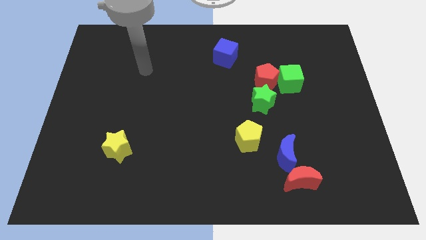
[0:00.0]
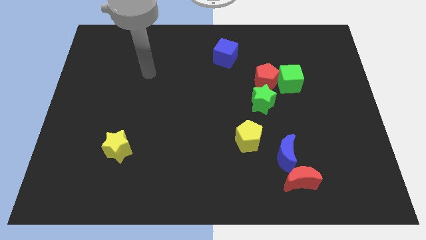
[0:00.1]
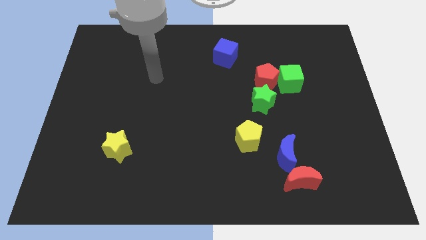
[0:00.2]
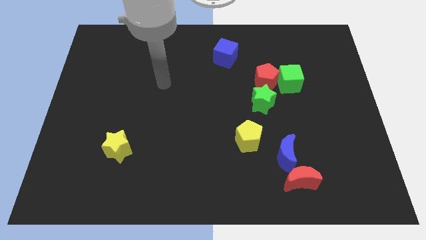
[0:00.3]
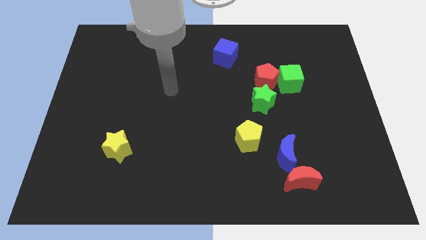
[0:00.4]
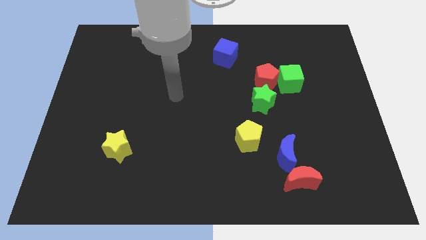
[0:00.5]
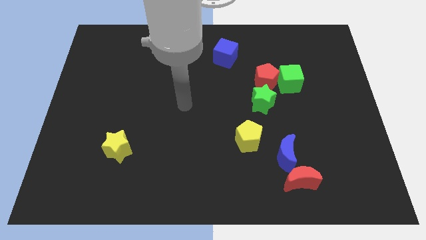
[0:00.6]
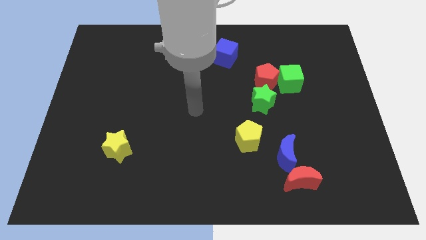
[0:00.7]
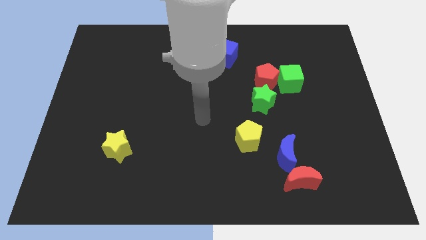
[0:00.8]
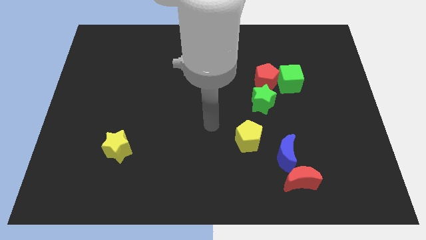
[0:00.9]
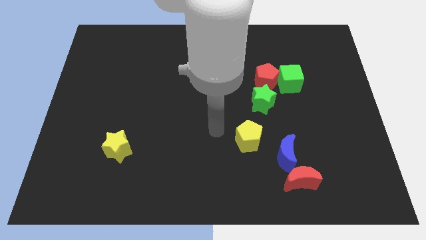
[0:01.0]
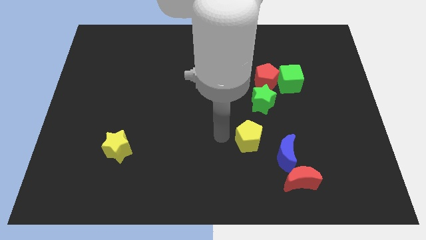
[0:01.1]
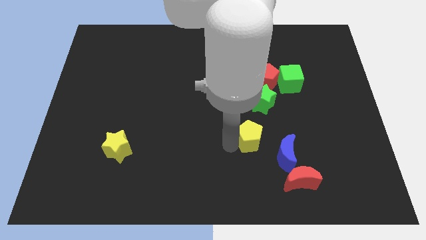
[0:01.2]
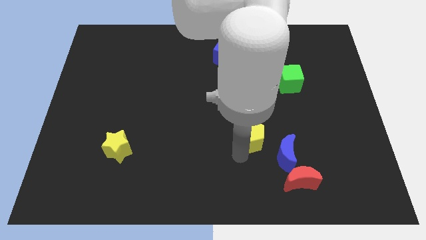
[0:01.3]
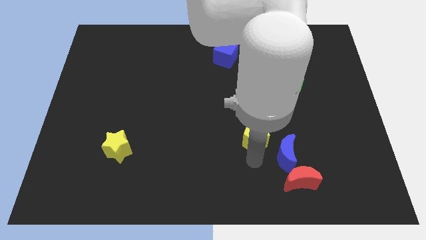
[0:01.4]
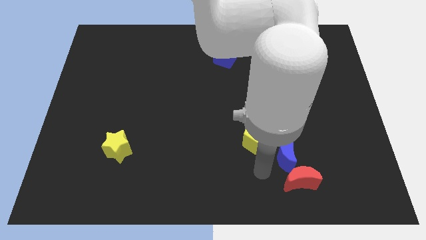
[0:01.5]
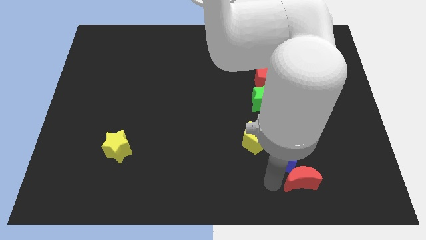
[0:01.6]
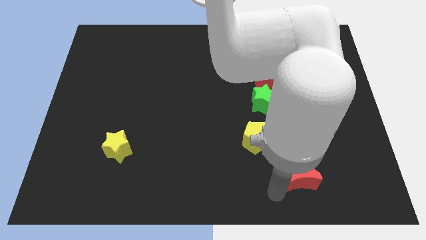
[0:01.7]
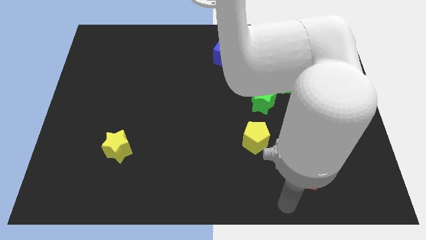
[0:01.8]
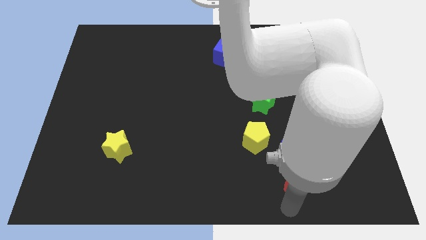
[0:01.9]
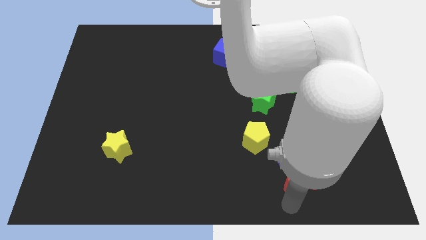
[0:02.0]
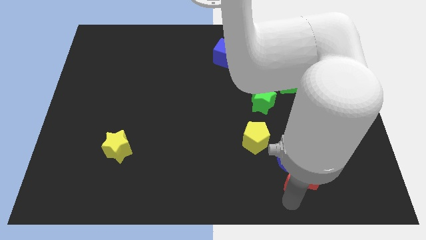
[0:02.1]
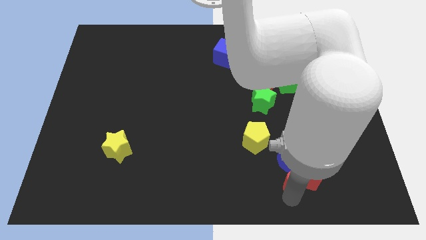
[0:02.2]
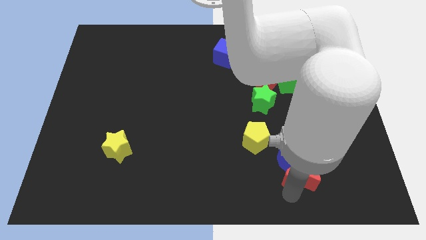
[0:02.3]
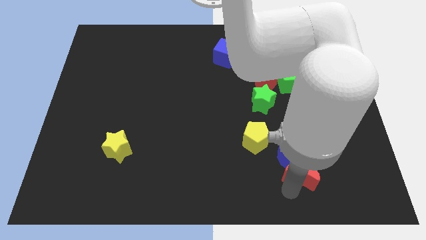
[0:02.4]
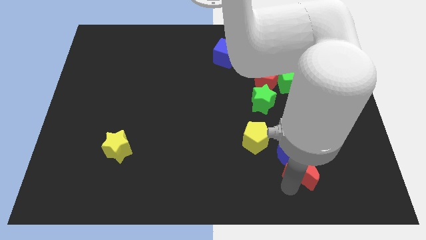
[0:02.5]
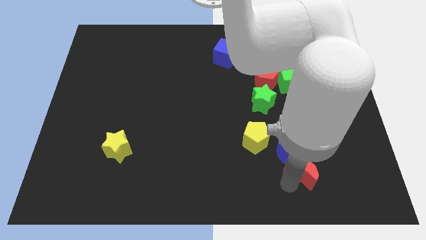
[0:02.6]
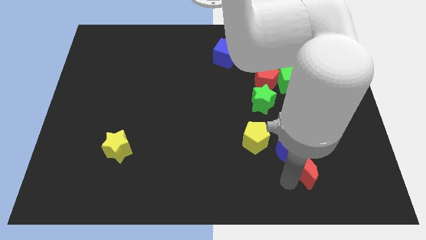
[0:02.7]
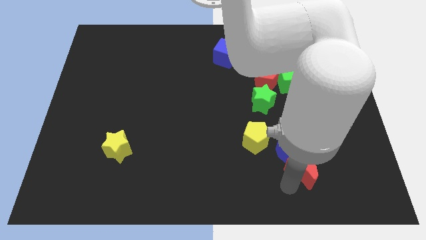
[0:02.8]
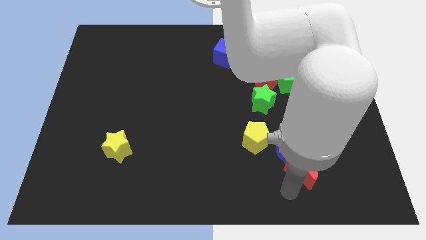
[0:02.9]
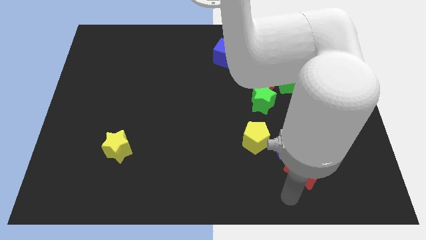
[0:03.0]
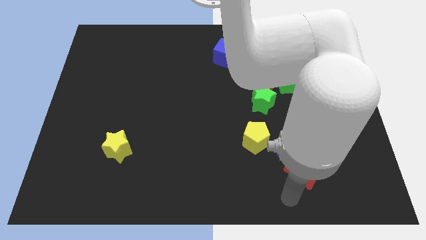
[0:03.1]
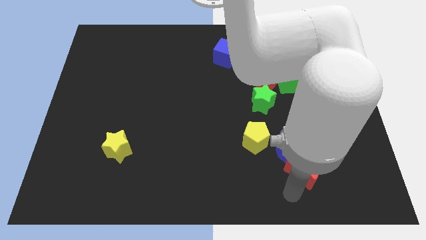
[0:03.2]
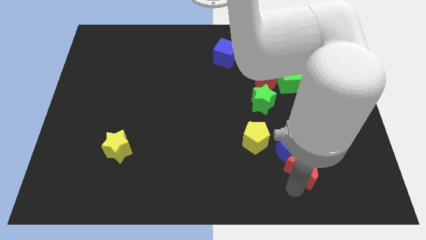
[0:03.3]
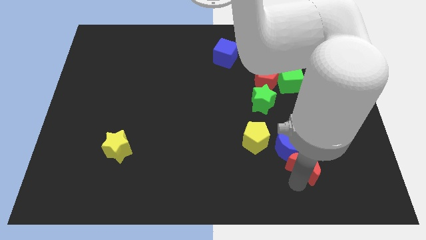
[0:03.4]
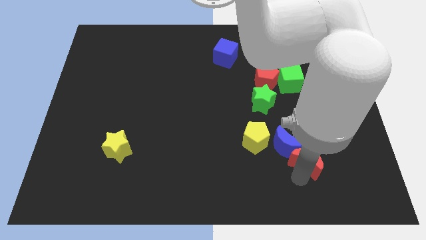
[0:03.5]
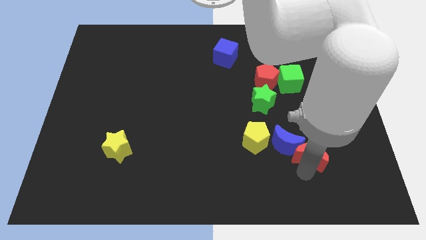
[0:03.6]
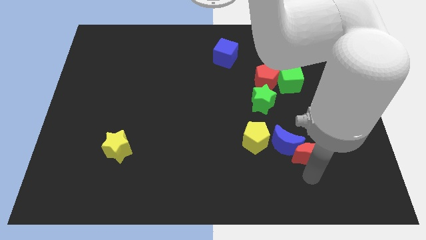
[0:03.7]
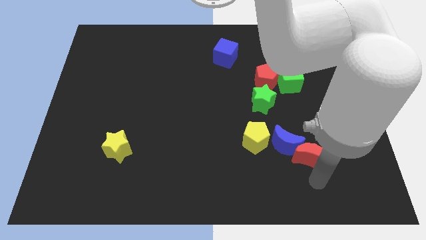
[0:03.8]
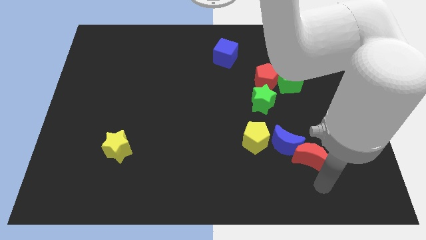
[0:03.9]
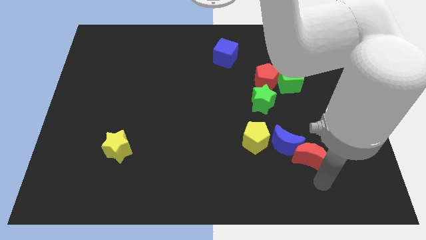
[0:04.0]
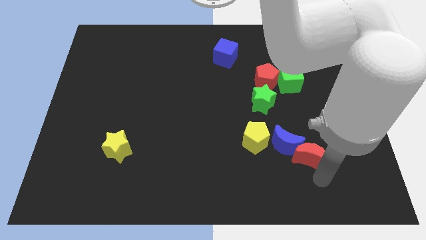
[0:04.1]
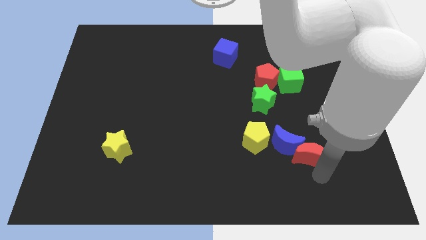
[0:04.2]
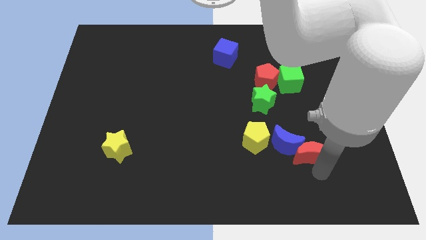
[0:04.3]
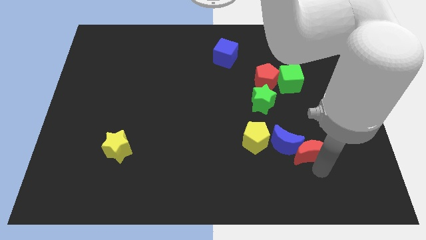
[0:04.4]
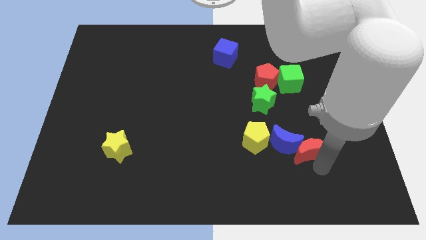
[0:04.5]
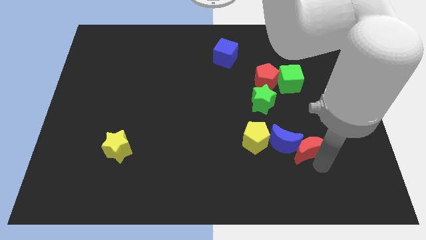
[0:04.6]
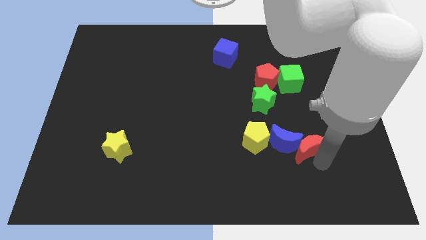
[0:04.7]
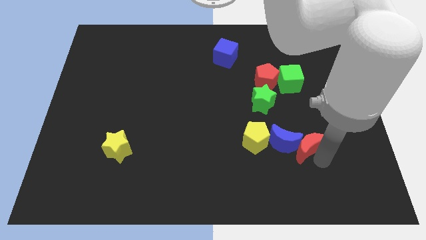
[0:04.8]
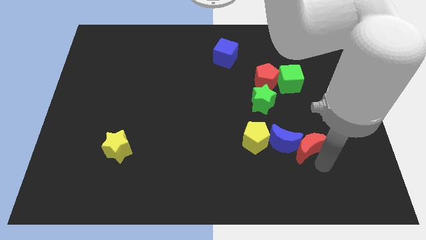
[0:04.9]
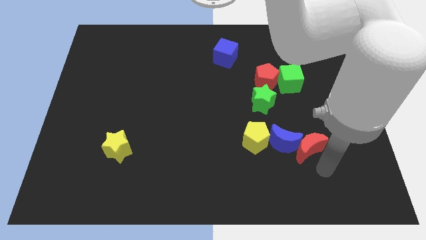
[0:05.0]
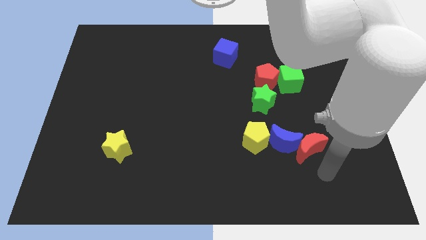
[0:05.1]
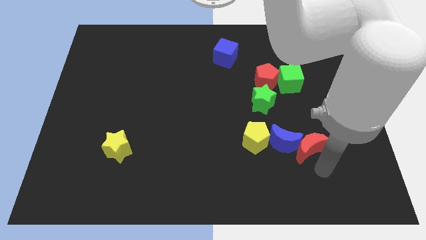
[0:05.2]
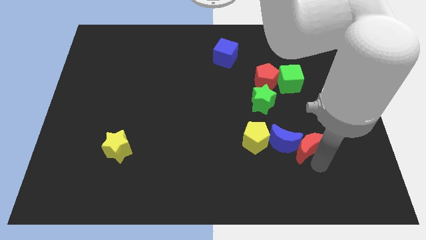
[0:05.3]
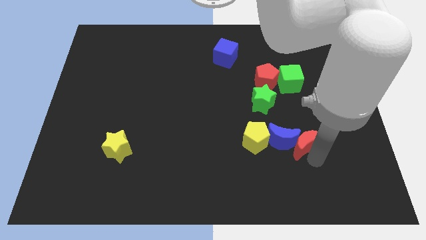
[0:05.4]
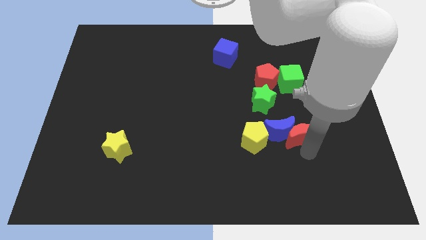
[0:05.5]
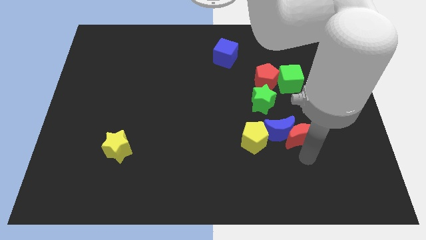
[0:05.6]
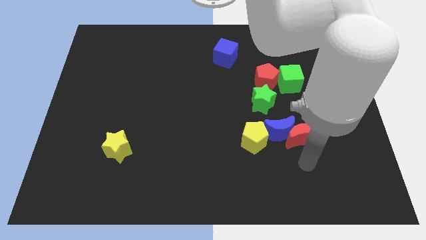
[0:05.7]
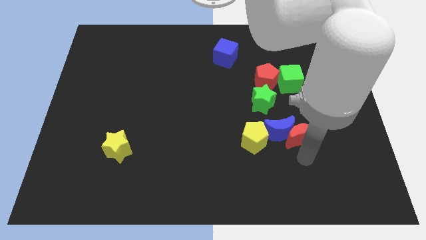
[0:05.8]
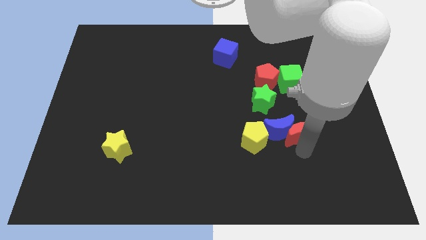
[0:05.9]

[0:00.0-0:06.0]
move the red moon below the green cube
